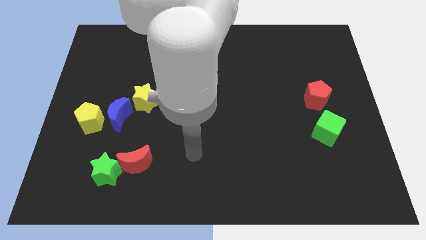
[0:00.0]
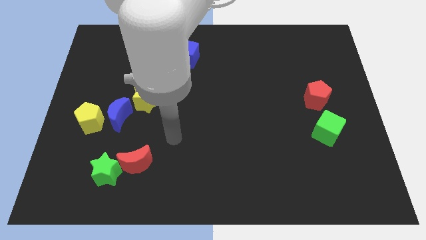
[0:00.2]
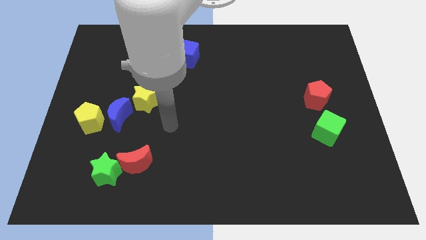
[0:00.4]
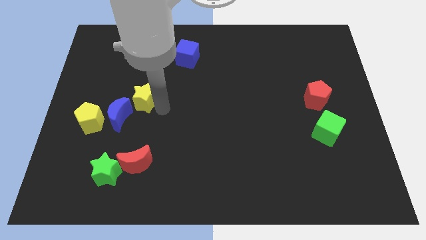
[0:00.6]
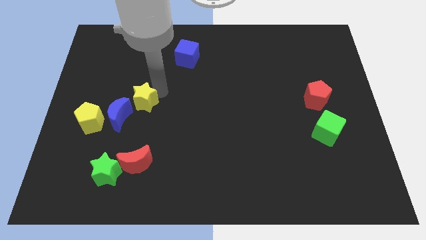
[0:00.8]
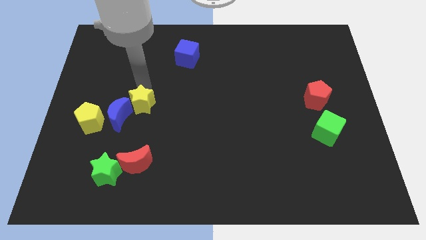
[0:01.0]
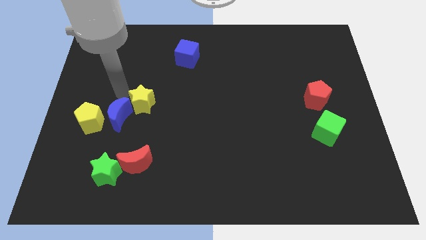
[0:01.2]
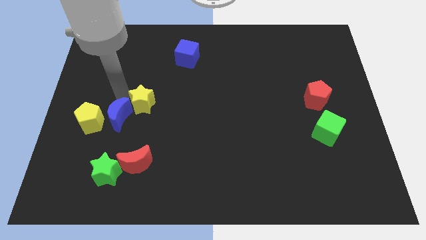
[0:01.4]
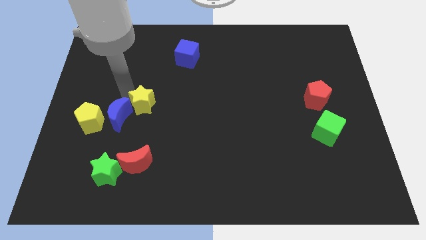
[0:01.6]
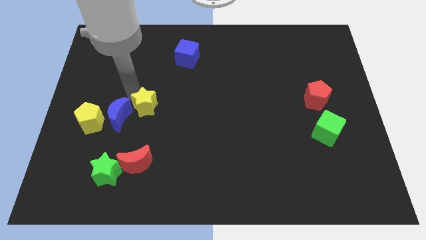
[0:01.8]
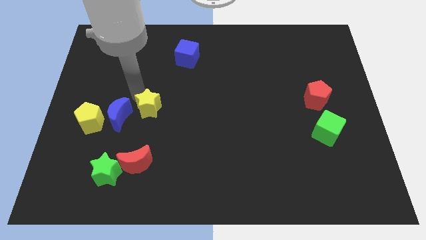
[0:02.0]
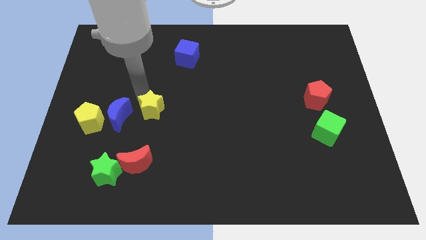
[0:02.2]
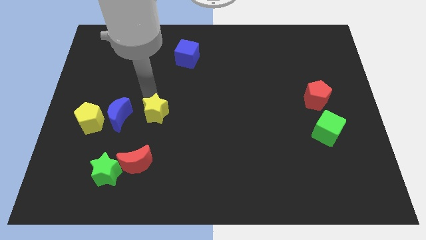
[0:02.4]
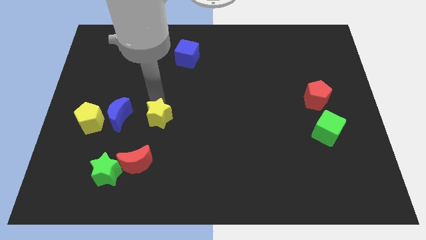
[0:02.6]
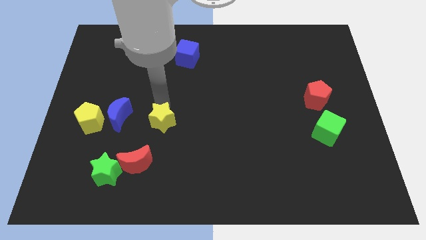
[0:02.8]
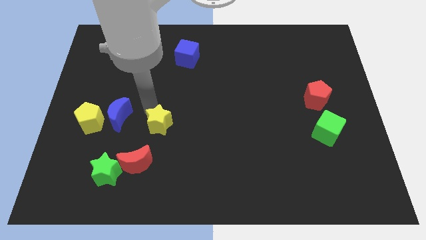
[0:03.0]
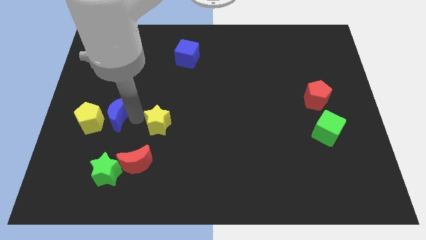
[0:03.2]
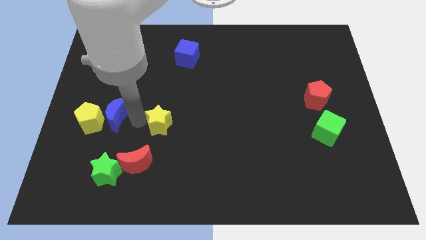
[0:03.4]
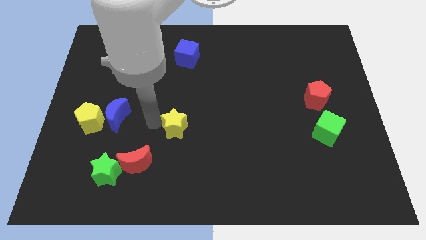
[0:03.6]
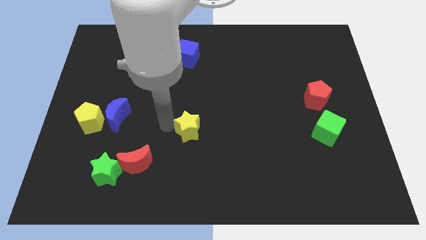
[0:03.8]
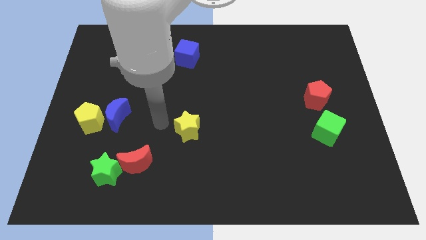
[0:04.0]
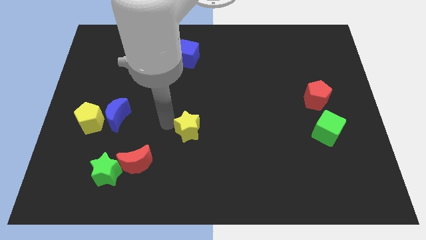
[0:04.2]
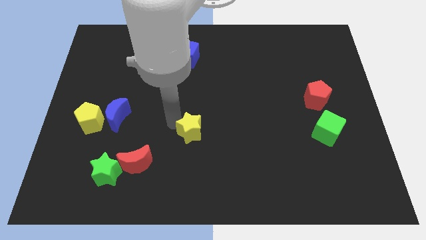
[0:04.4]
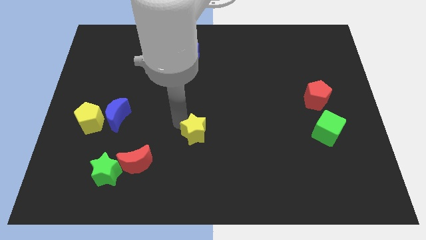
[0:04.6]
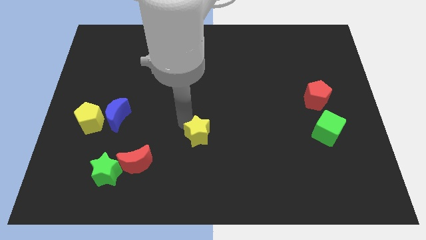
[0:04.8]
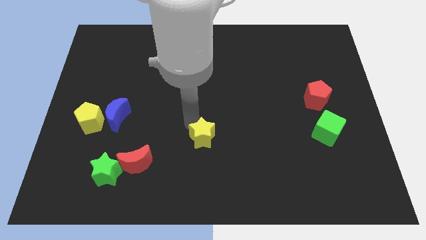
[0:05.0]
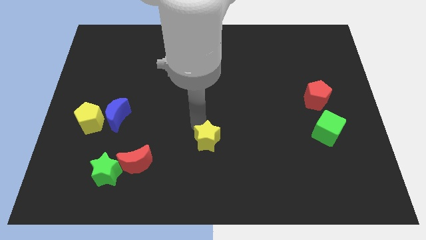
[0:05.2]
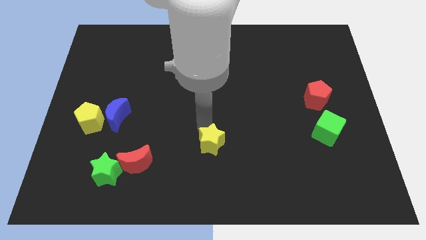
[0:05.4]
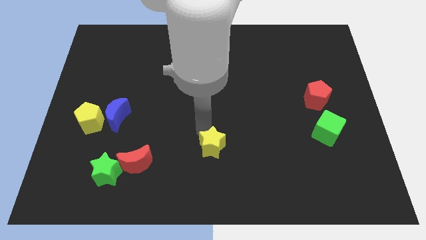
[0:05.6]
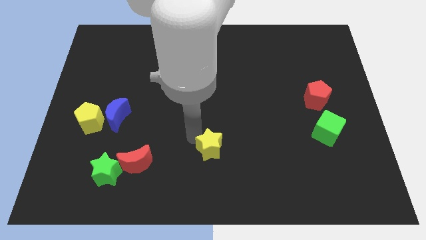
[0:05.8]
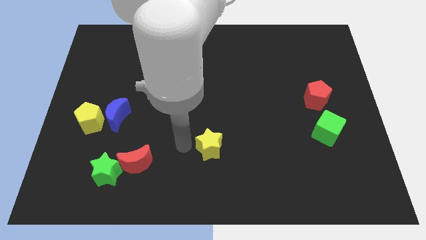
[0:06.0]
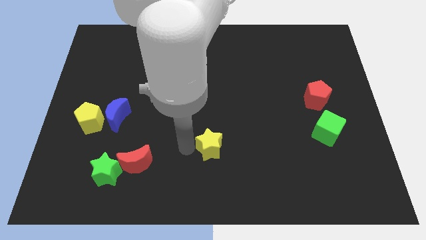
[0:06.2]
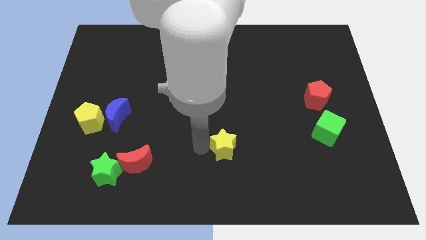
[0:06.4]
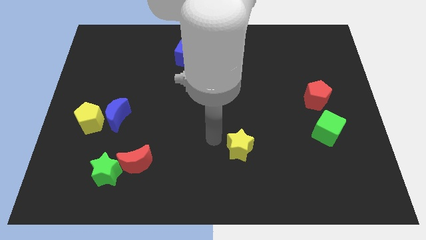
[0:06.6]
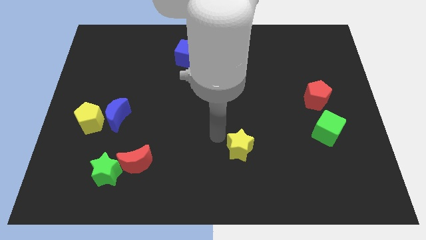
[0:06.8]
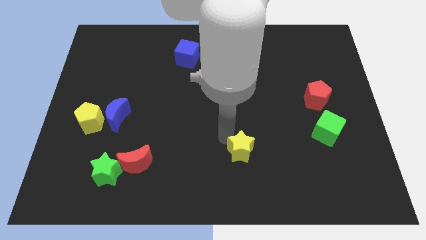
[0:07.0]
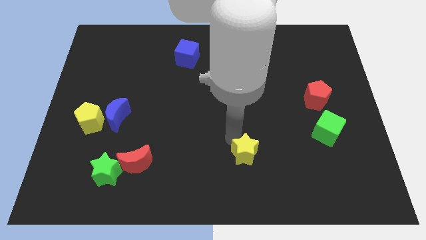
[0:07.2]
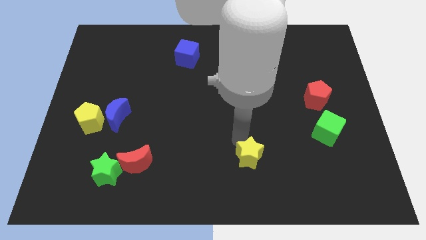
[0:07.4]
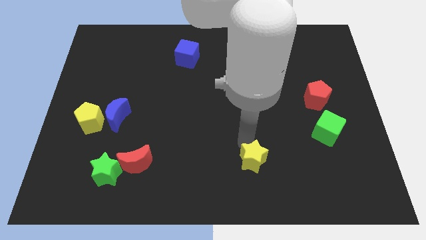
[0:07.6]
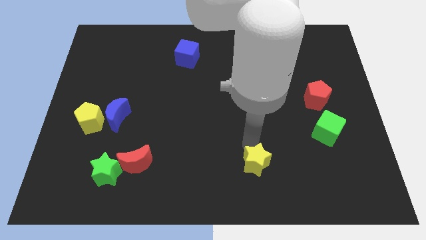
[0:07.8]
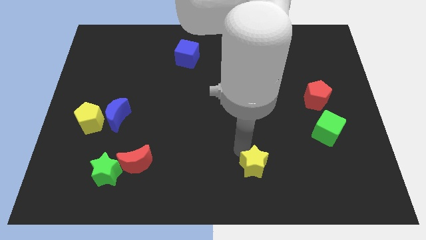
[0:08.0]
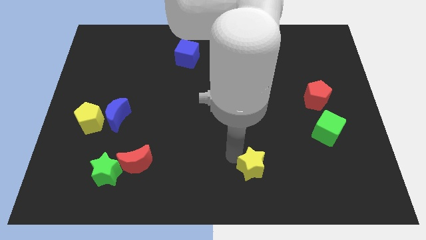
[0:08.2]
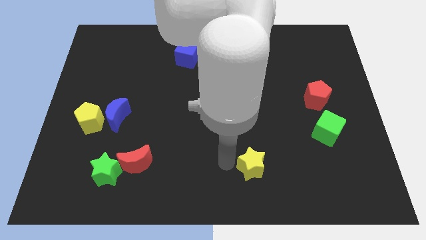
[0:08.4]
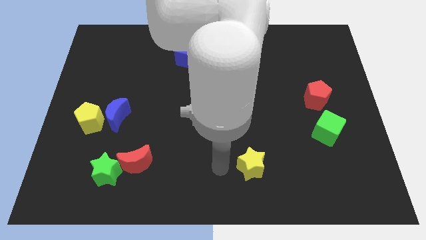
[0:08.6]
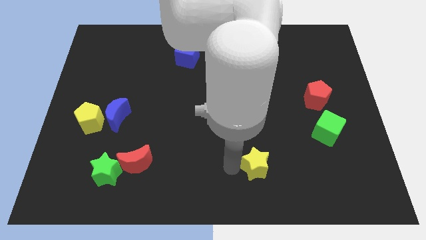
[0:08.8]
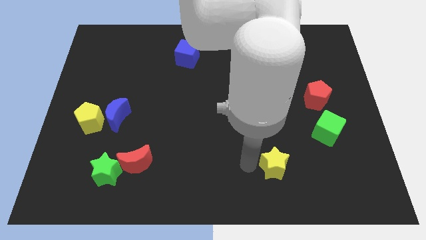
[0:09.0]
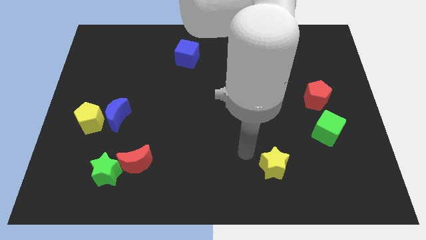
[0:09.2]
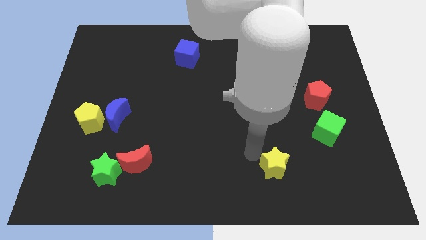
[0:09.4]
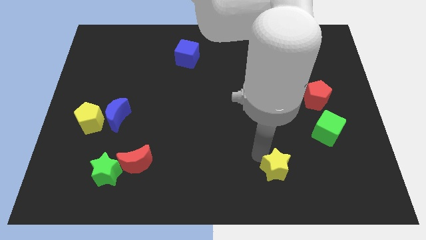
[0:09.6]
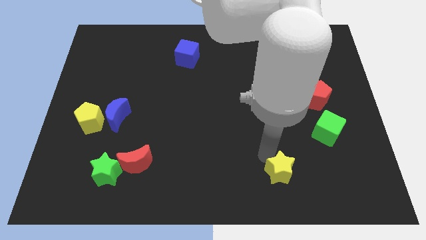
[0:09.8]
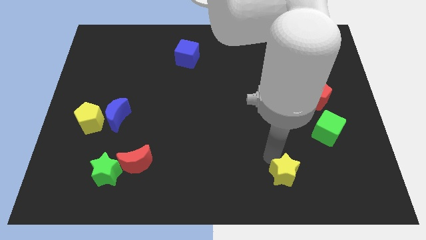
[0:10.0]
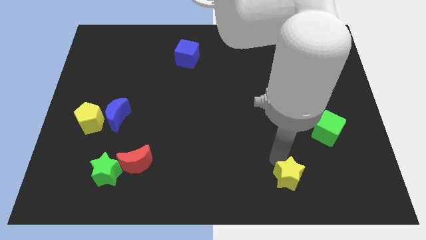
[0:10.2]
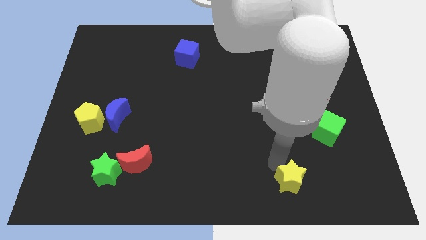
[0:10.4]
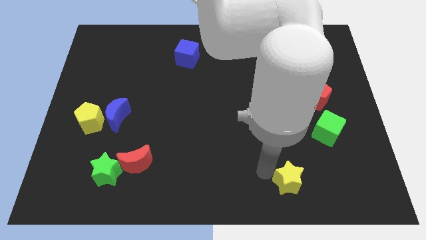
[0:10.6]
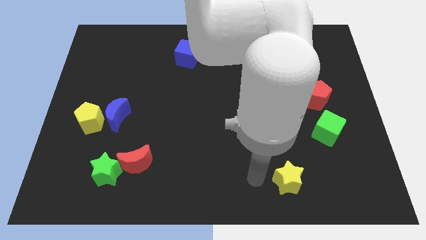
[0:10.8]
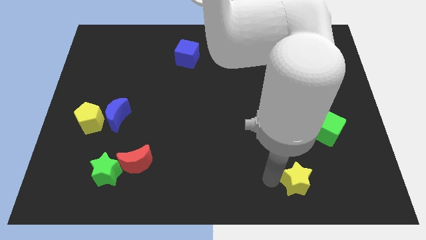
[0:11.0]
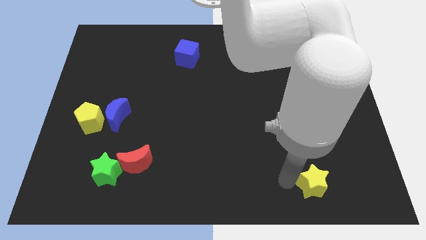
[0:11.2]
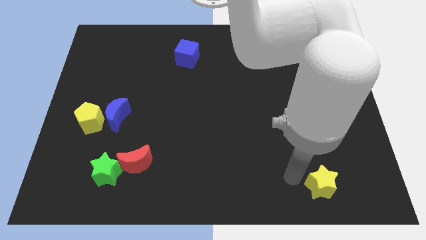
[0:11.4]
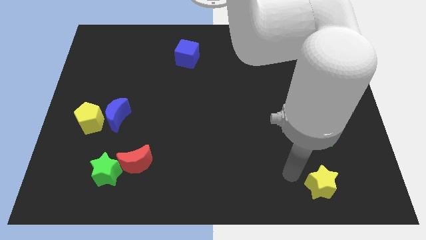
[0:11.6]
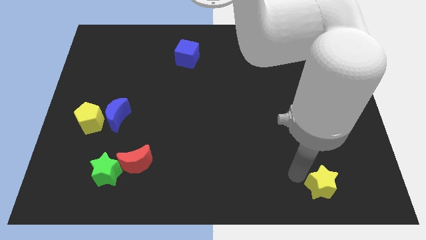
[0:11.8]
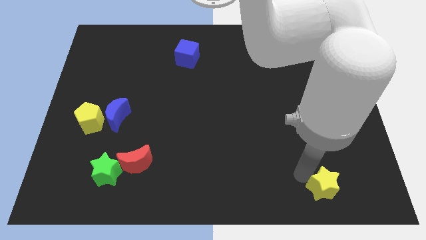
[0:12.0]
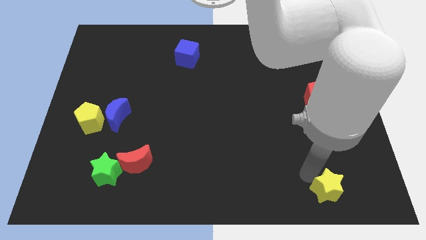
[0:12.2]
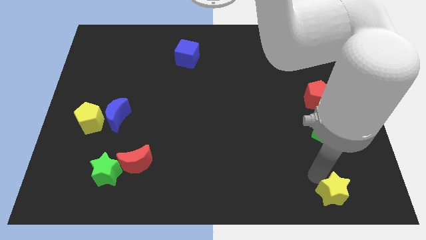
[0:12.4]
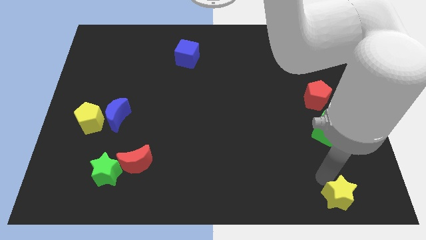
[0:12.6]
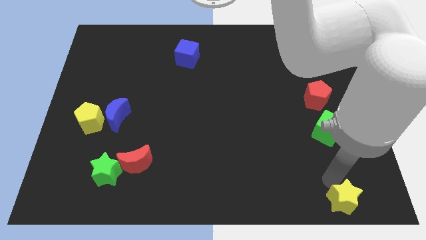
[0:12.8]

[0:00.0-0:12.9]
slide the yellow star to the lower right corner
